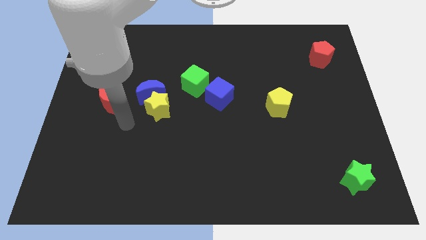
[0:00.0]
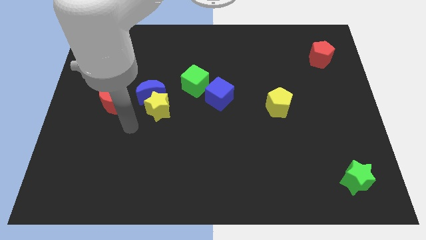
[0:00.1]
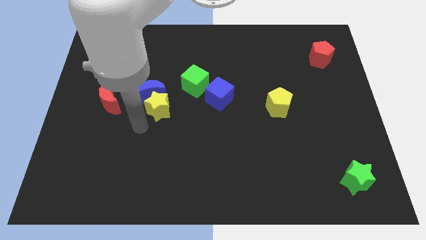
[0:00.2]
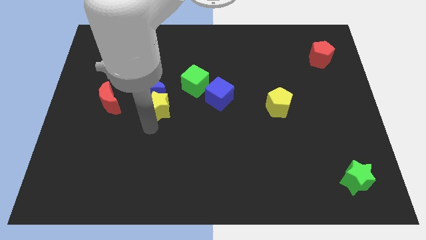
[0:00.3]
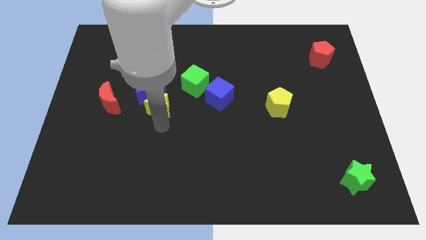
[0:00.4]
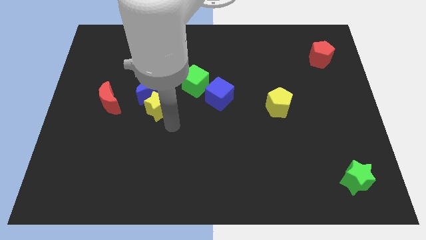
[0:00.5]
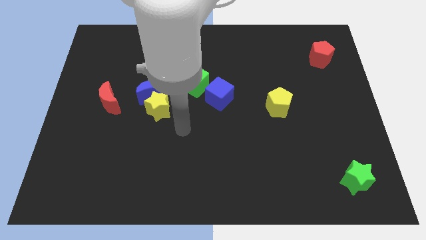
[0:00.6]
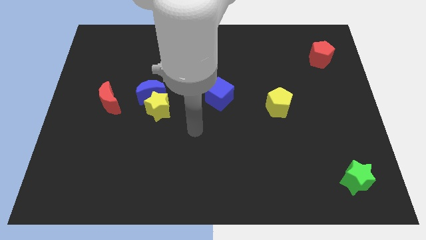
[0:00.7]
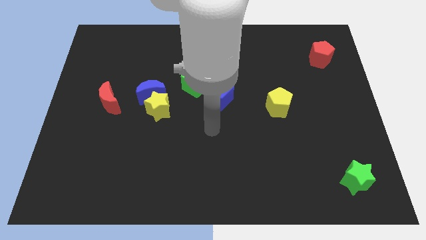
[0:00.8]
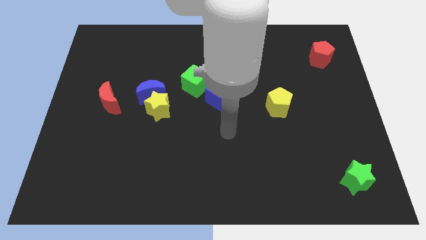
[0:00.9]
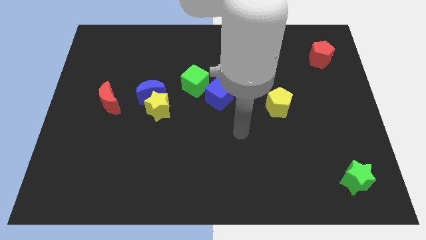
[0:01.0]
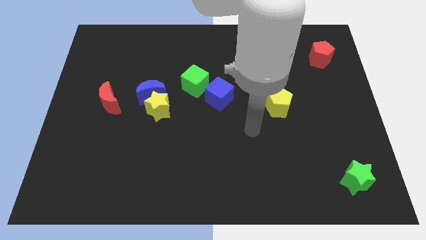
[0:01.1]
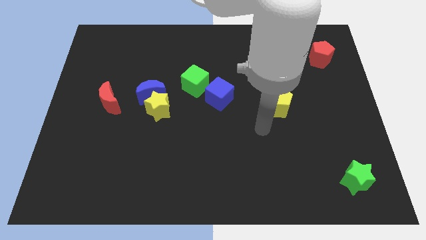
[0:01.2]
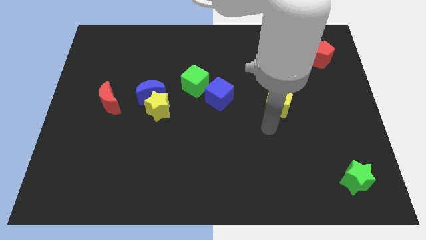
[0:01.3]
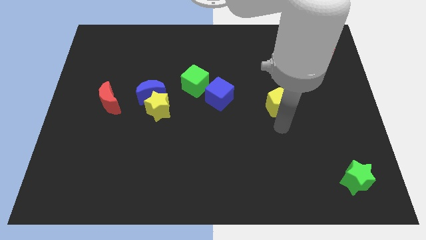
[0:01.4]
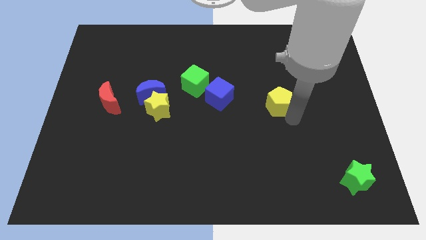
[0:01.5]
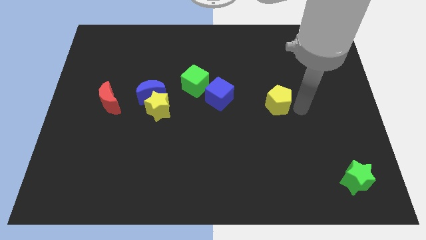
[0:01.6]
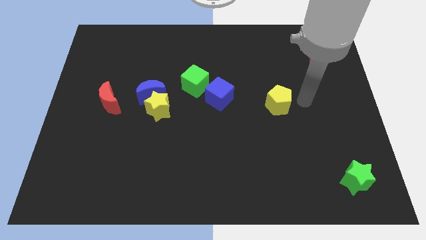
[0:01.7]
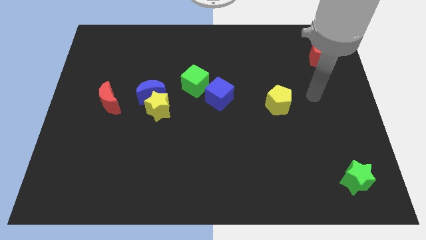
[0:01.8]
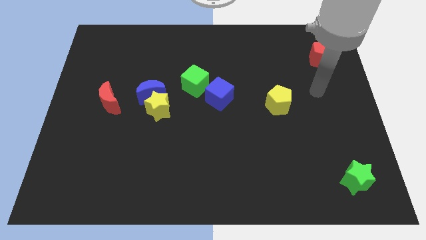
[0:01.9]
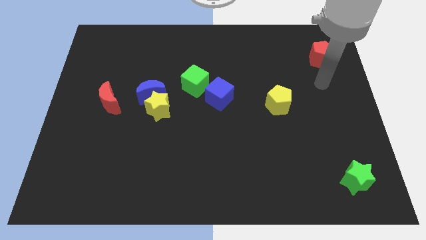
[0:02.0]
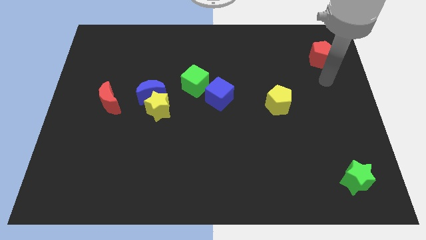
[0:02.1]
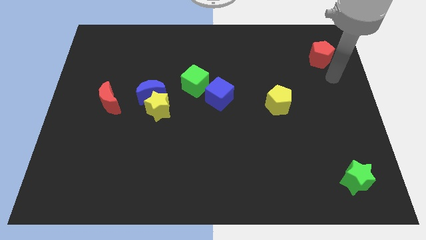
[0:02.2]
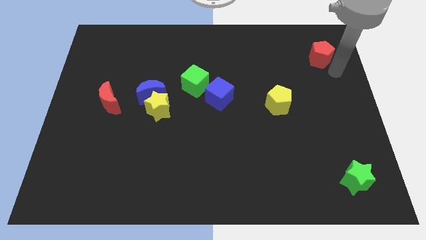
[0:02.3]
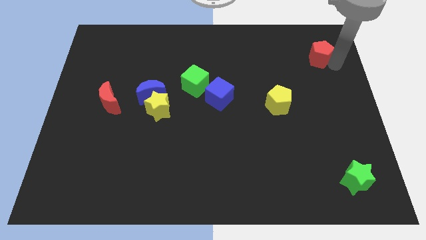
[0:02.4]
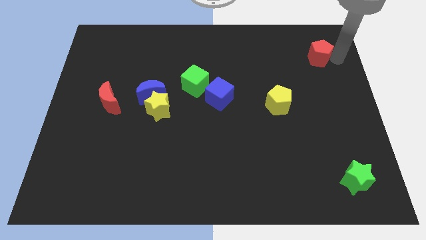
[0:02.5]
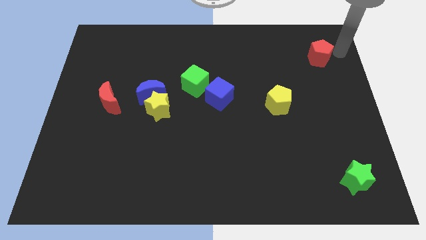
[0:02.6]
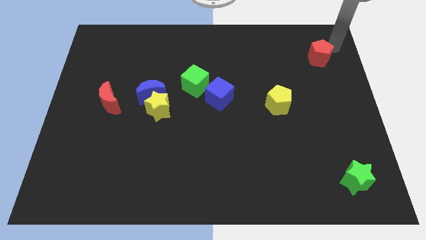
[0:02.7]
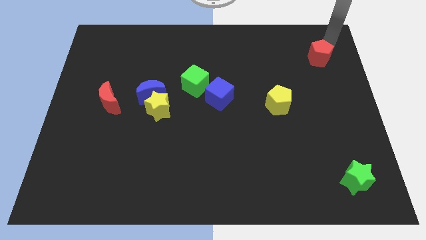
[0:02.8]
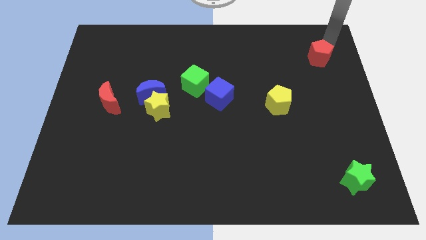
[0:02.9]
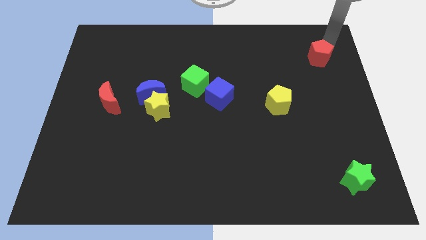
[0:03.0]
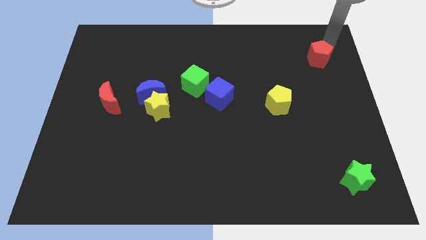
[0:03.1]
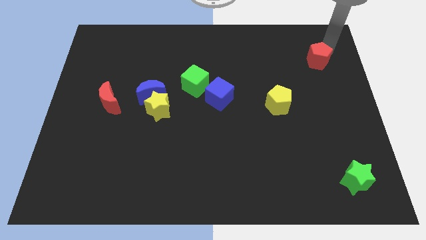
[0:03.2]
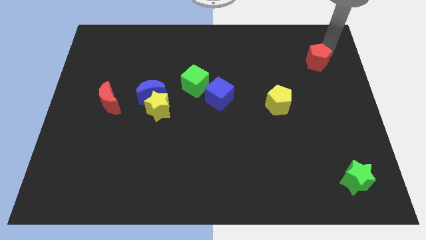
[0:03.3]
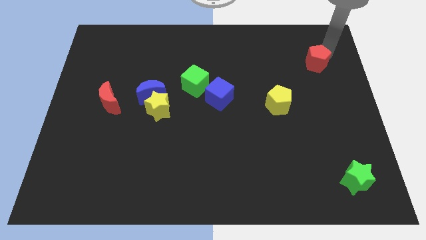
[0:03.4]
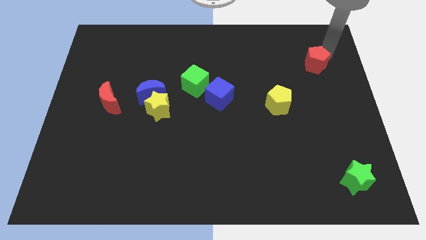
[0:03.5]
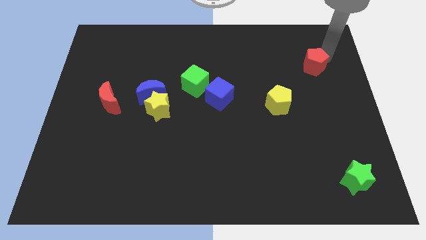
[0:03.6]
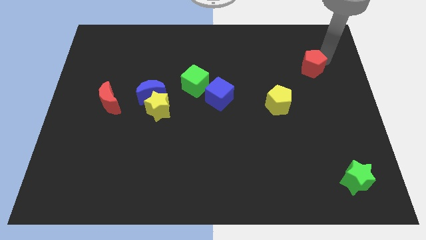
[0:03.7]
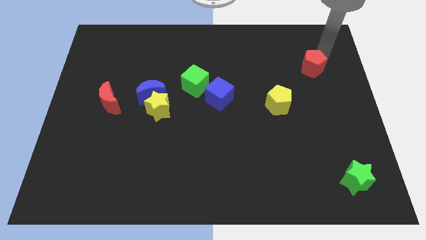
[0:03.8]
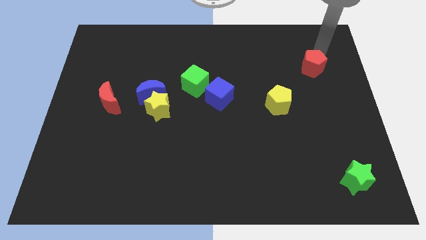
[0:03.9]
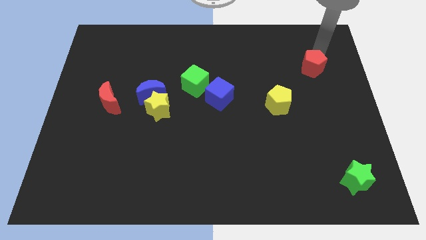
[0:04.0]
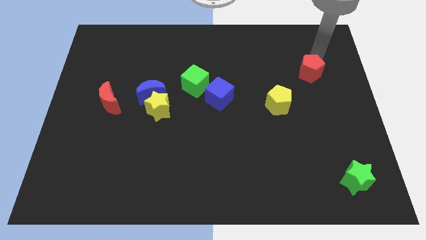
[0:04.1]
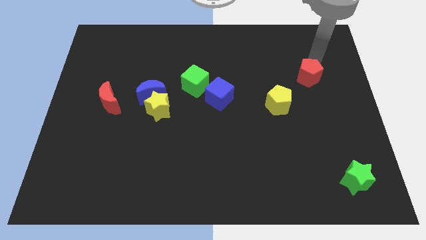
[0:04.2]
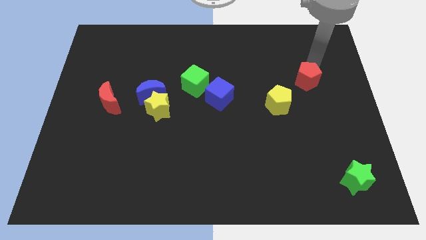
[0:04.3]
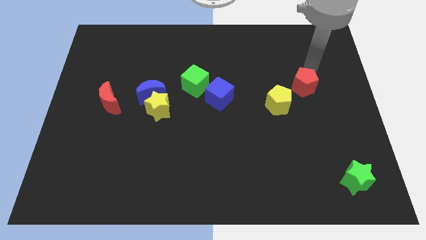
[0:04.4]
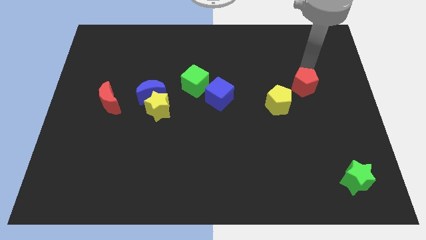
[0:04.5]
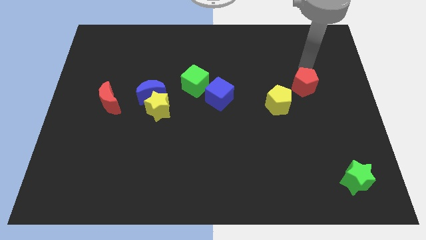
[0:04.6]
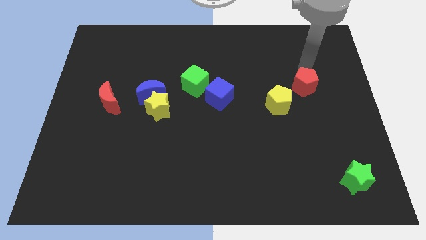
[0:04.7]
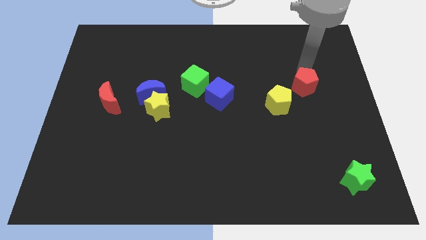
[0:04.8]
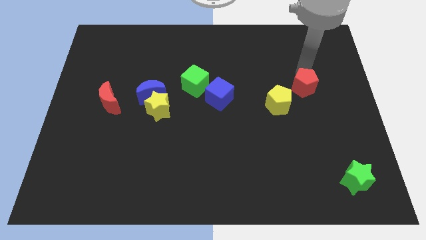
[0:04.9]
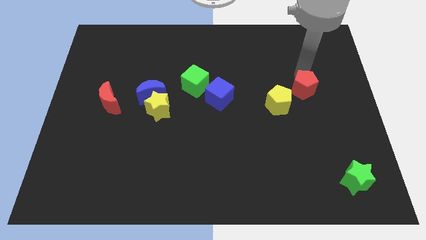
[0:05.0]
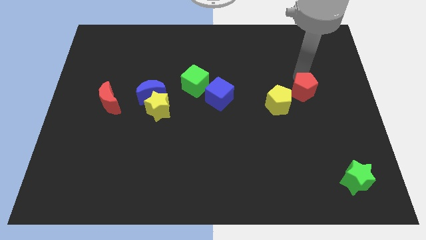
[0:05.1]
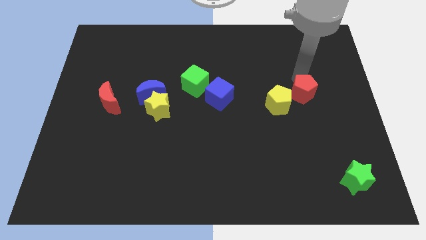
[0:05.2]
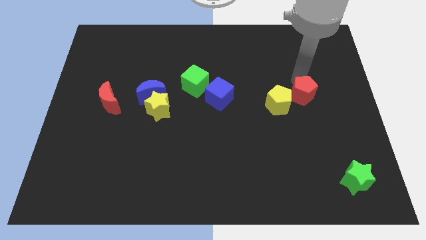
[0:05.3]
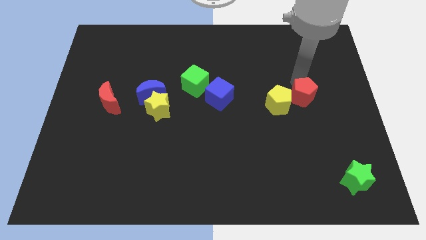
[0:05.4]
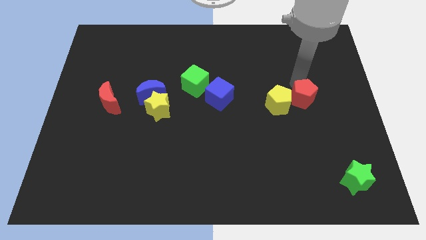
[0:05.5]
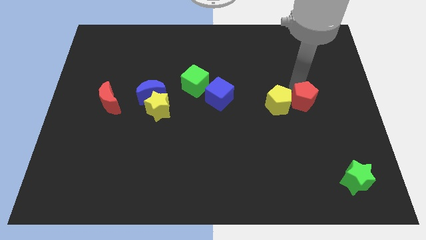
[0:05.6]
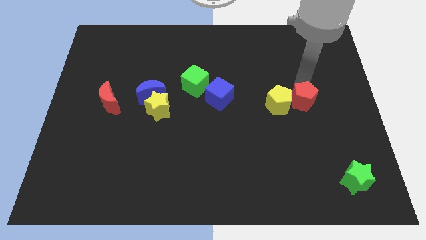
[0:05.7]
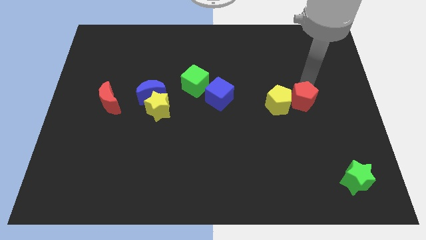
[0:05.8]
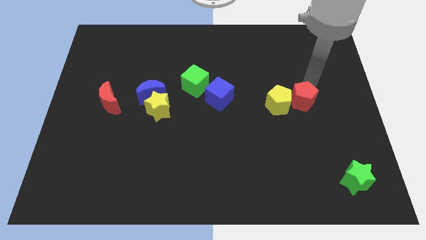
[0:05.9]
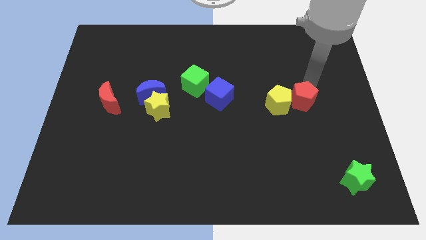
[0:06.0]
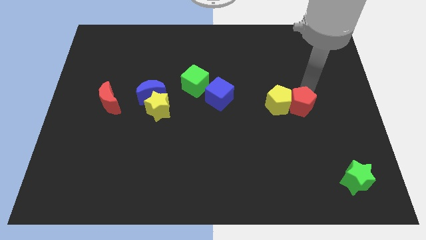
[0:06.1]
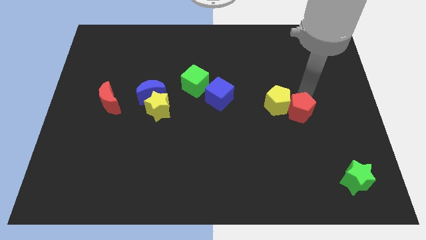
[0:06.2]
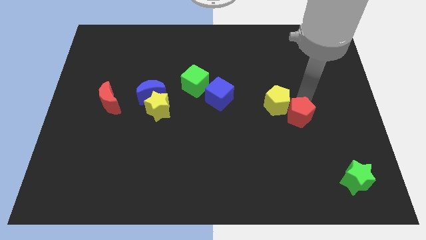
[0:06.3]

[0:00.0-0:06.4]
push the red pentagon to the bottom side of the yellow pentagon

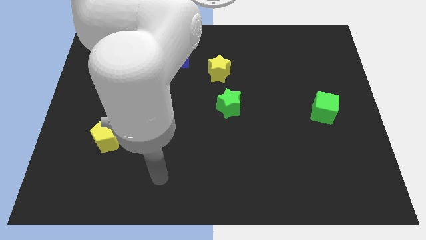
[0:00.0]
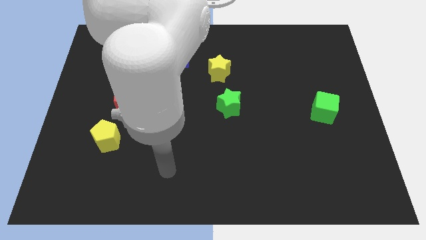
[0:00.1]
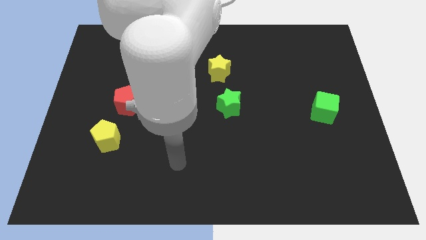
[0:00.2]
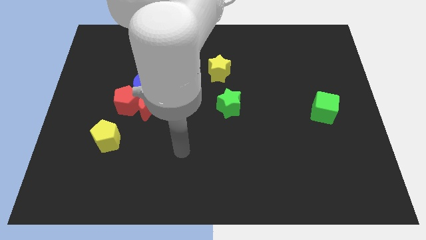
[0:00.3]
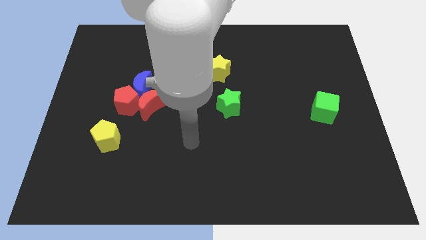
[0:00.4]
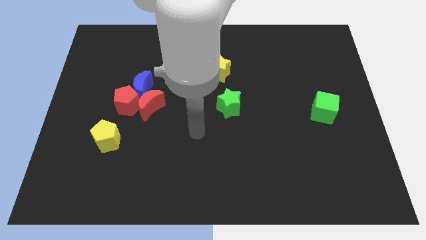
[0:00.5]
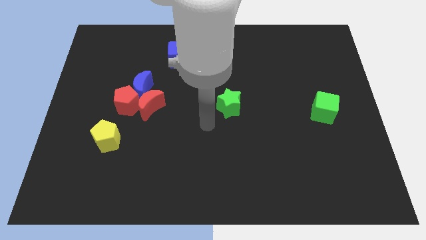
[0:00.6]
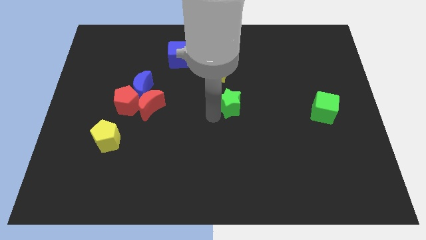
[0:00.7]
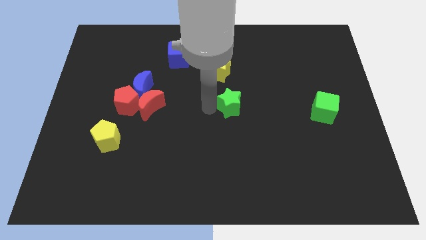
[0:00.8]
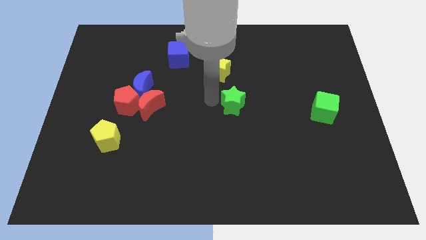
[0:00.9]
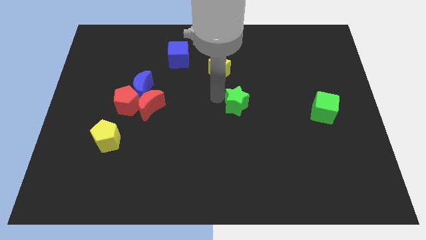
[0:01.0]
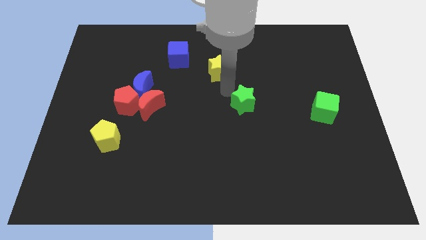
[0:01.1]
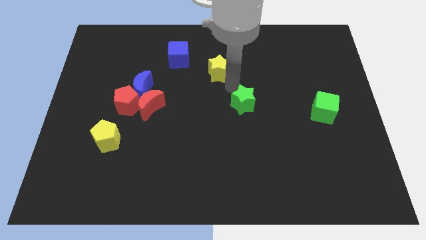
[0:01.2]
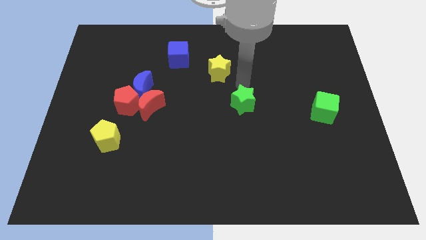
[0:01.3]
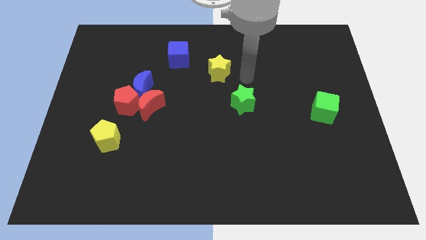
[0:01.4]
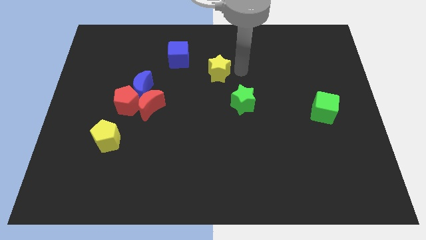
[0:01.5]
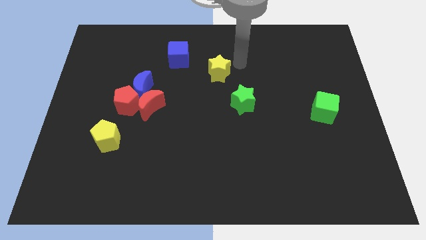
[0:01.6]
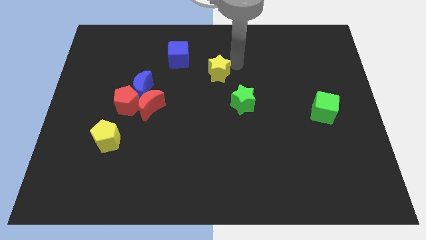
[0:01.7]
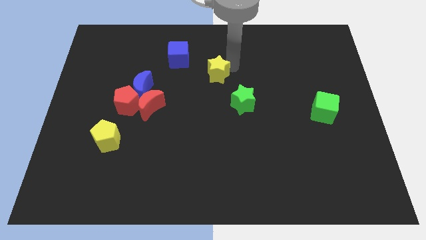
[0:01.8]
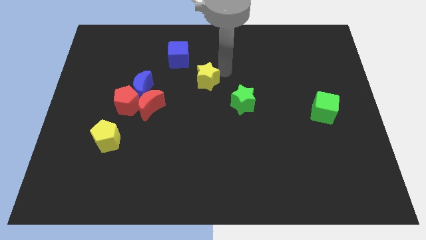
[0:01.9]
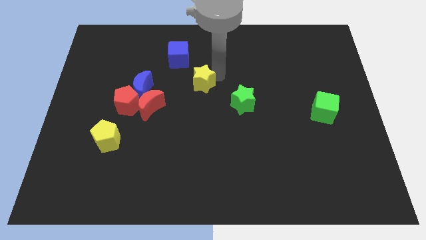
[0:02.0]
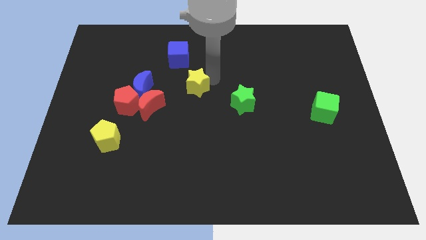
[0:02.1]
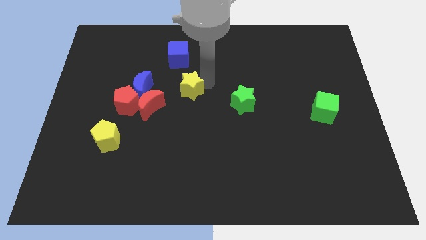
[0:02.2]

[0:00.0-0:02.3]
slide the yellow star to the bottom of the blue cube
